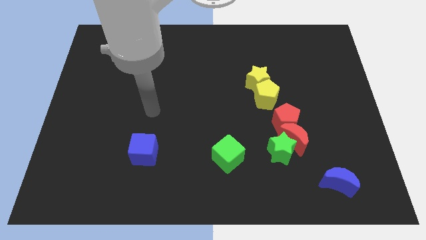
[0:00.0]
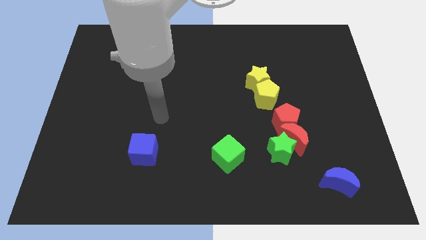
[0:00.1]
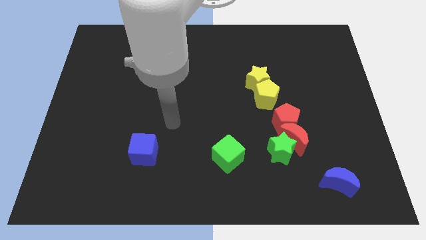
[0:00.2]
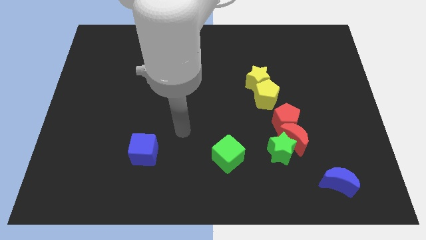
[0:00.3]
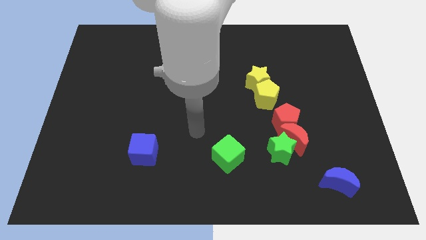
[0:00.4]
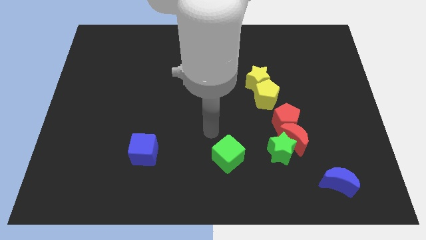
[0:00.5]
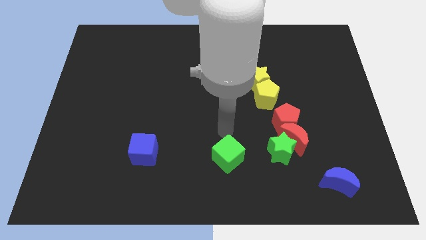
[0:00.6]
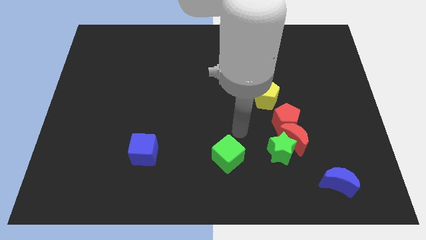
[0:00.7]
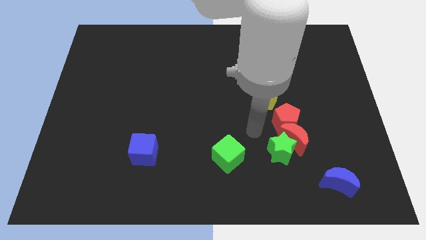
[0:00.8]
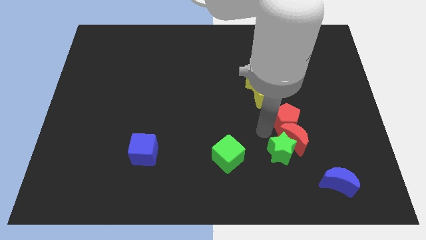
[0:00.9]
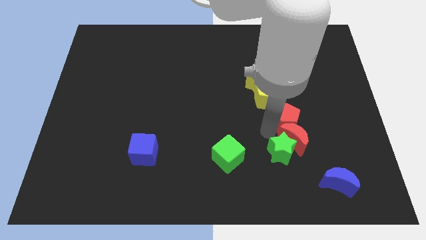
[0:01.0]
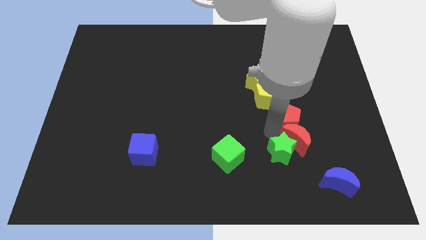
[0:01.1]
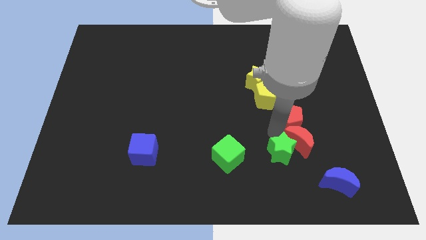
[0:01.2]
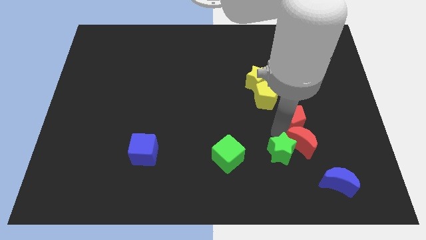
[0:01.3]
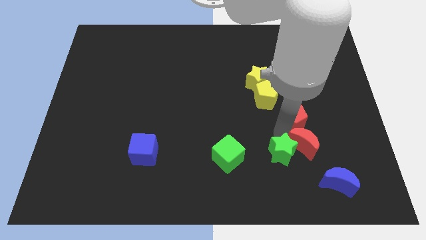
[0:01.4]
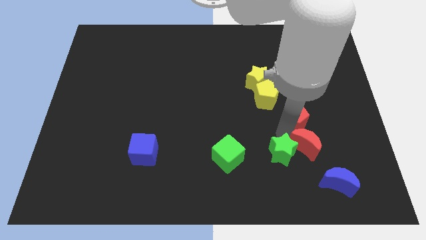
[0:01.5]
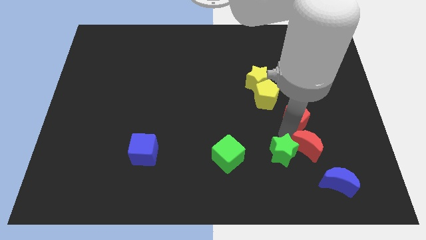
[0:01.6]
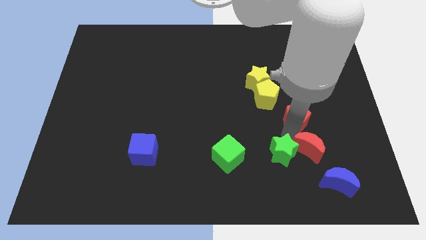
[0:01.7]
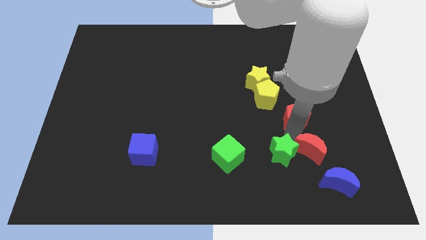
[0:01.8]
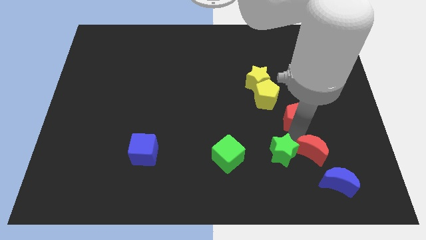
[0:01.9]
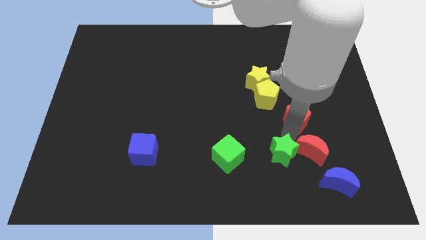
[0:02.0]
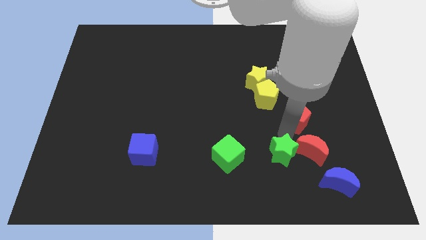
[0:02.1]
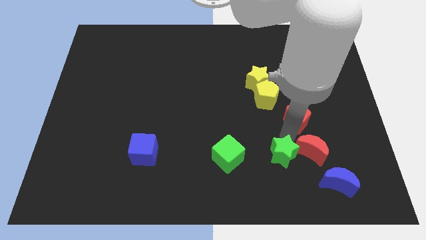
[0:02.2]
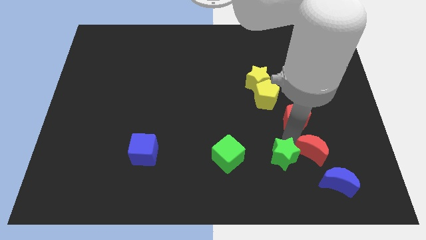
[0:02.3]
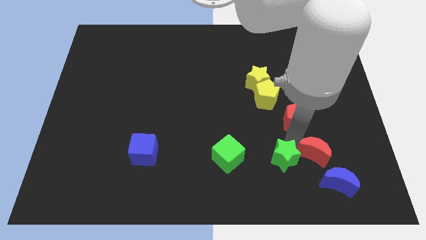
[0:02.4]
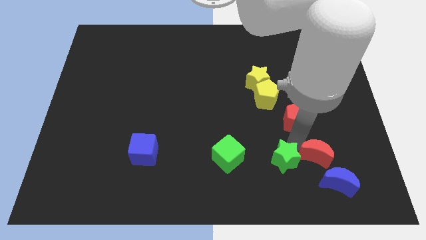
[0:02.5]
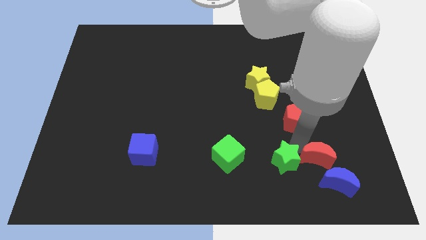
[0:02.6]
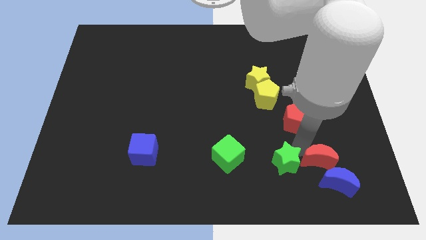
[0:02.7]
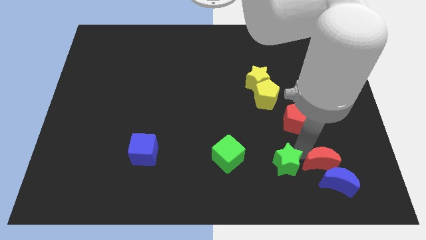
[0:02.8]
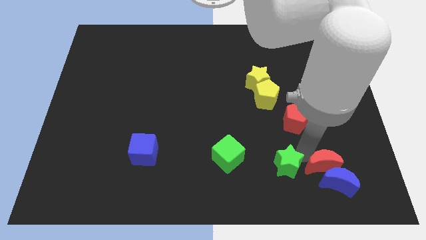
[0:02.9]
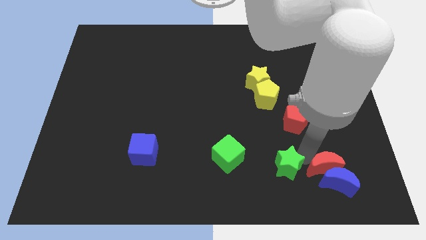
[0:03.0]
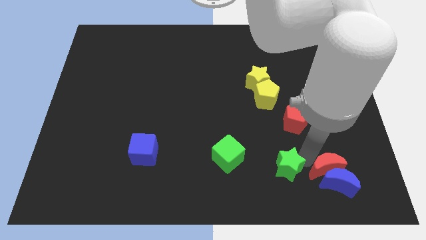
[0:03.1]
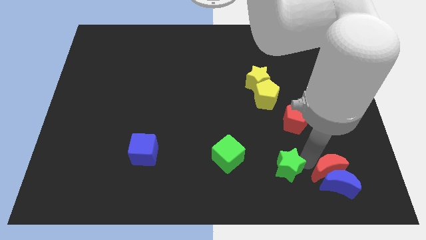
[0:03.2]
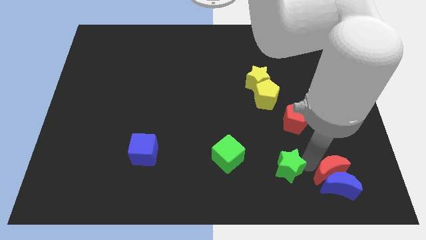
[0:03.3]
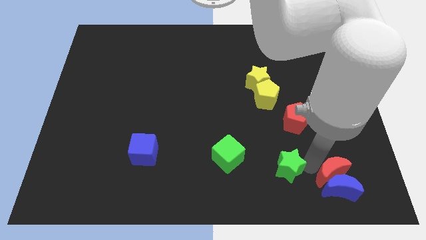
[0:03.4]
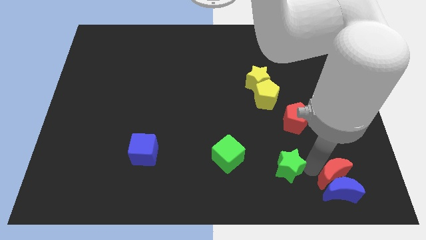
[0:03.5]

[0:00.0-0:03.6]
move the red moon away from the green star and red pentagon

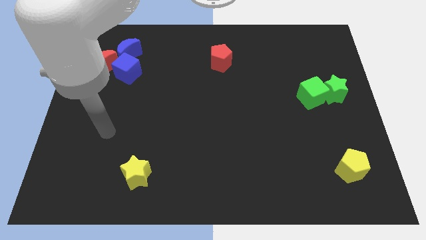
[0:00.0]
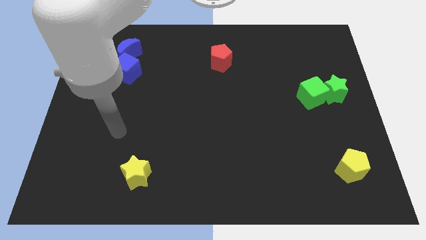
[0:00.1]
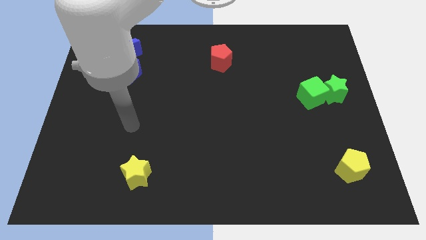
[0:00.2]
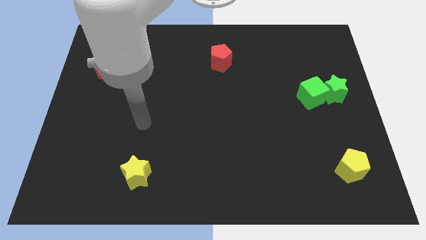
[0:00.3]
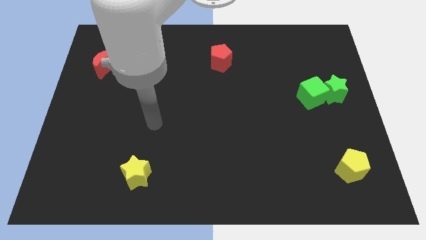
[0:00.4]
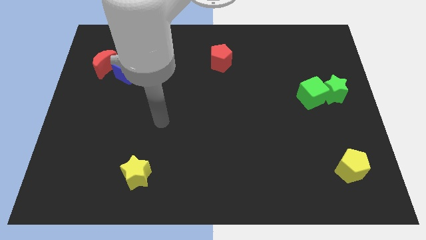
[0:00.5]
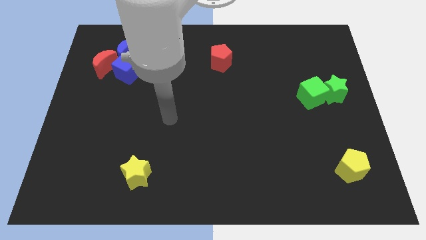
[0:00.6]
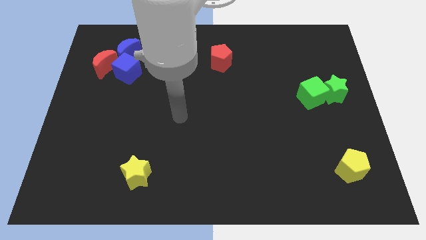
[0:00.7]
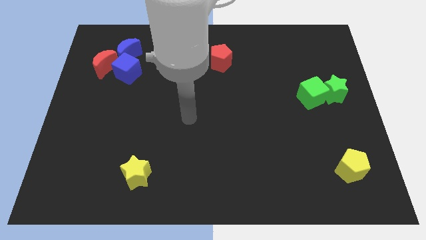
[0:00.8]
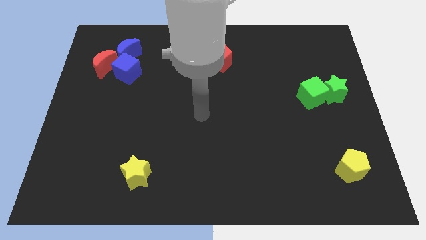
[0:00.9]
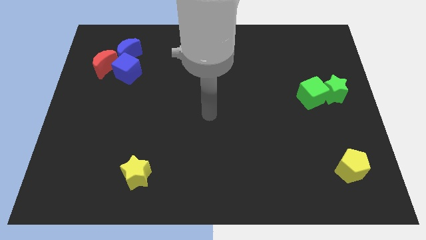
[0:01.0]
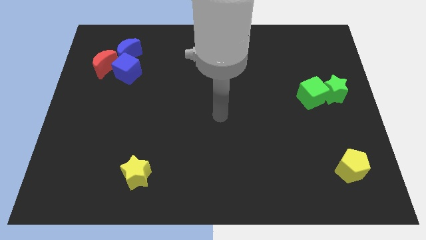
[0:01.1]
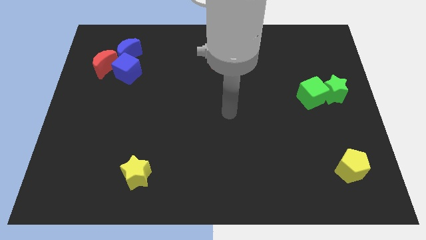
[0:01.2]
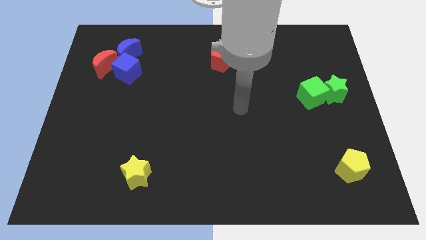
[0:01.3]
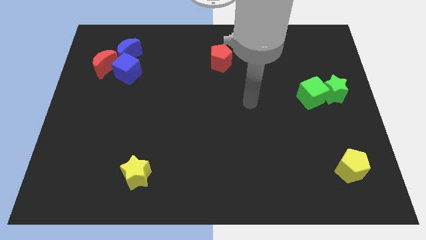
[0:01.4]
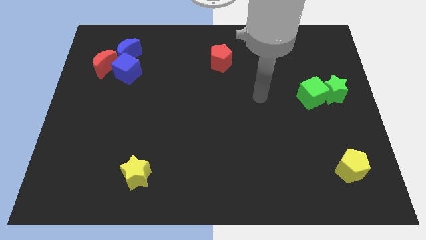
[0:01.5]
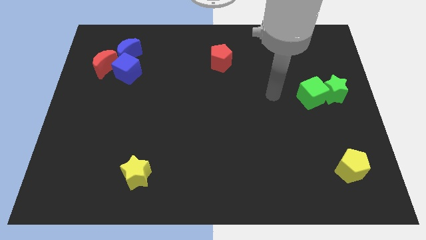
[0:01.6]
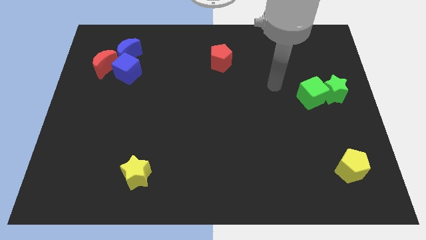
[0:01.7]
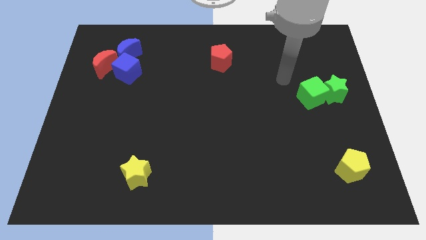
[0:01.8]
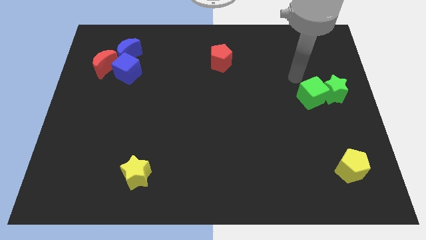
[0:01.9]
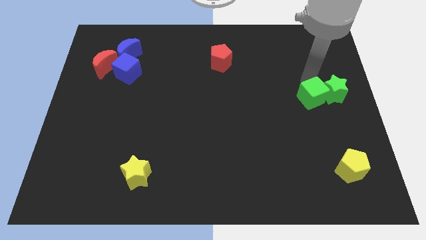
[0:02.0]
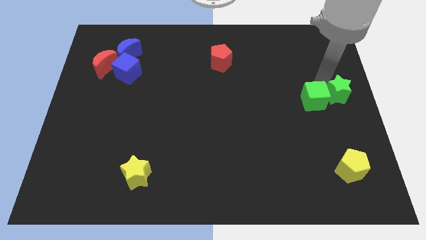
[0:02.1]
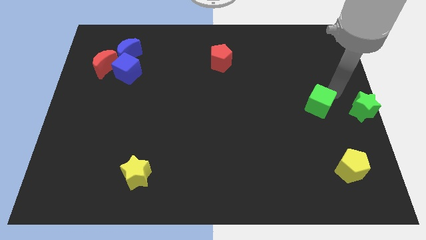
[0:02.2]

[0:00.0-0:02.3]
pull the green cube apart from the green star

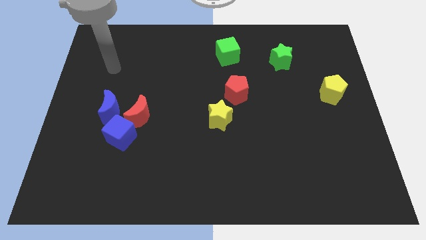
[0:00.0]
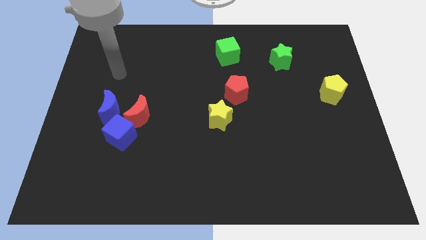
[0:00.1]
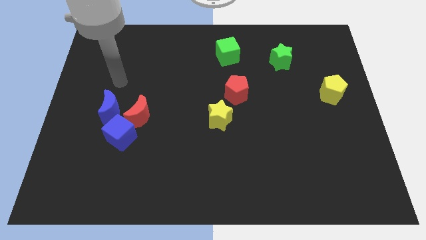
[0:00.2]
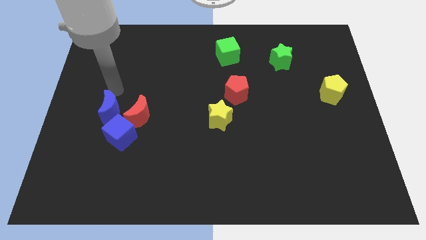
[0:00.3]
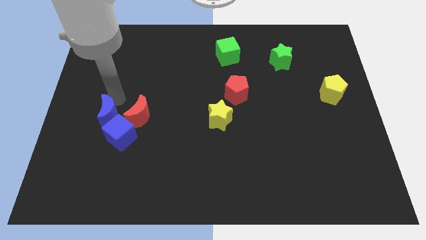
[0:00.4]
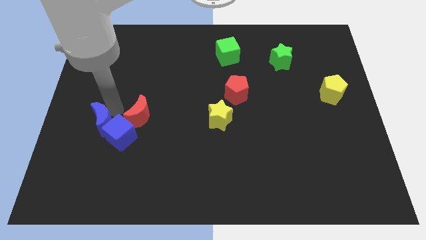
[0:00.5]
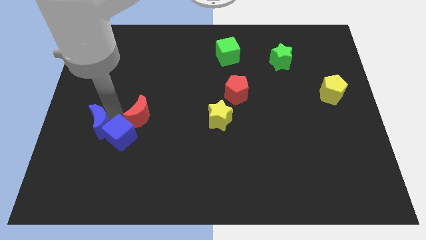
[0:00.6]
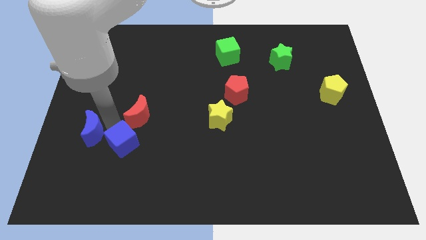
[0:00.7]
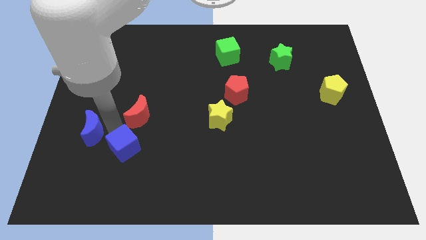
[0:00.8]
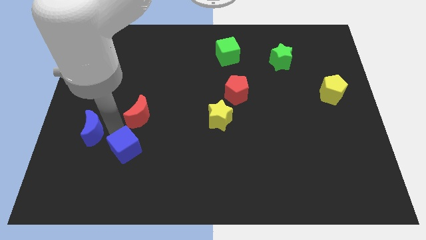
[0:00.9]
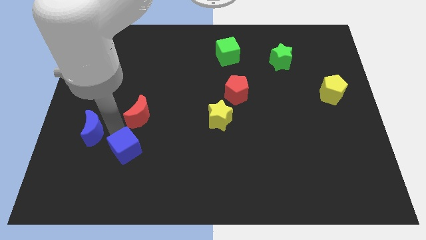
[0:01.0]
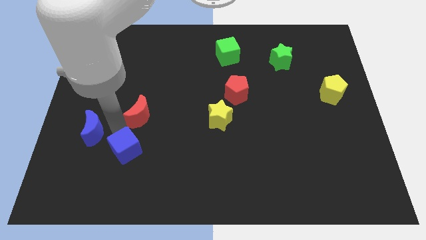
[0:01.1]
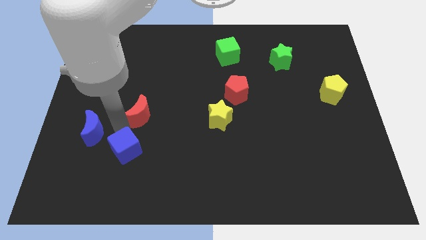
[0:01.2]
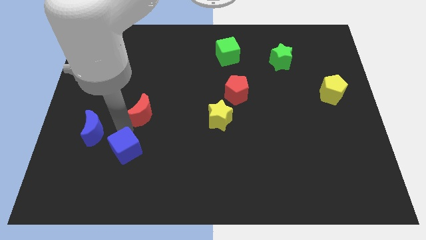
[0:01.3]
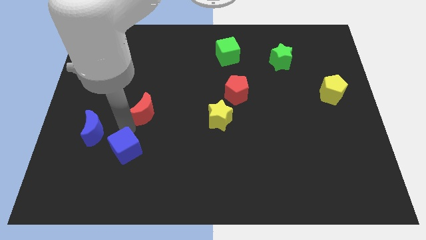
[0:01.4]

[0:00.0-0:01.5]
pull the red moon apart from the blue cube and blue moon

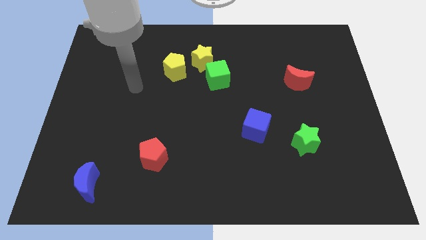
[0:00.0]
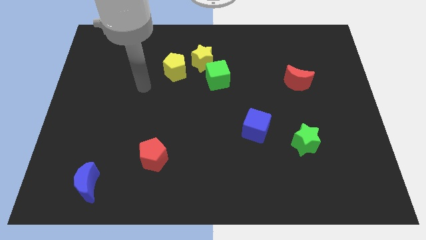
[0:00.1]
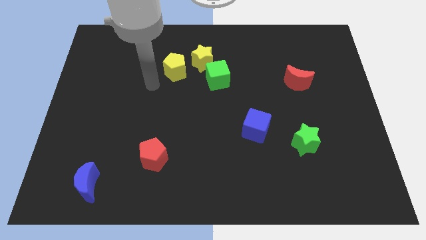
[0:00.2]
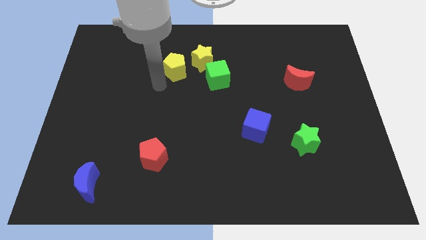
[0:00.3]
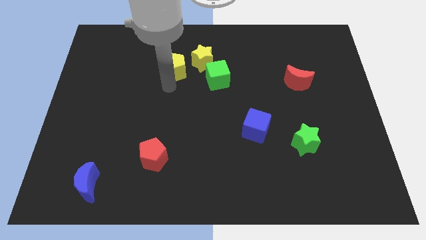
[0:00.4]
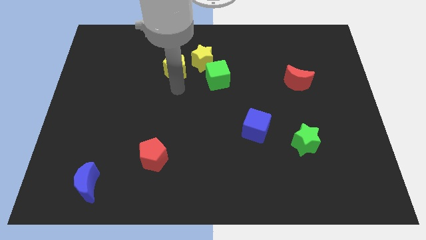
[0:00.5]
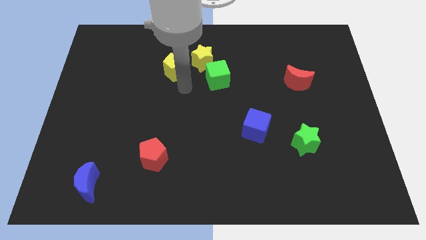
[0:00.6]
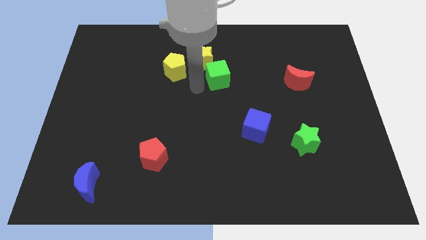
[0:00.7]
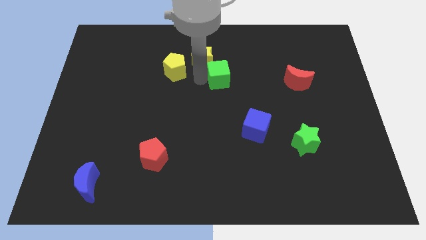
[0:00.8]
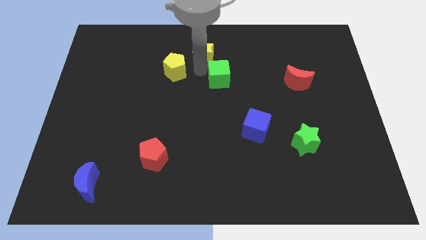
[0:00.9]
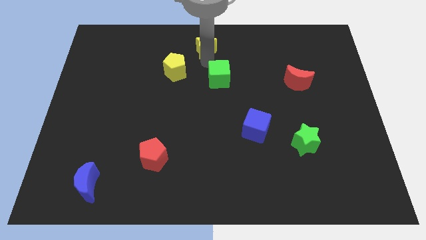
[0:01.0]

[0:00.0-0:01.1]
move the green cube away from the yellow star

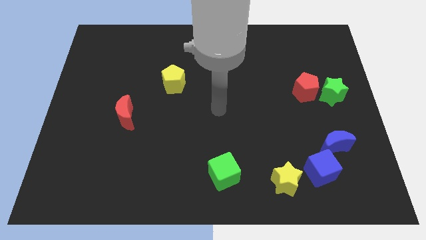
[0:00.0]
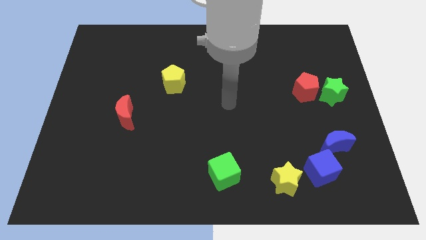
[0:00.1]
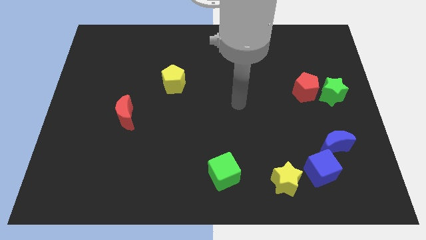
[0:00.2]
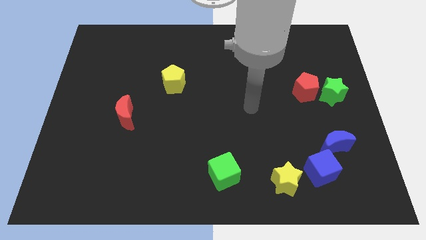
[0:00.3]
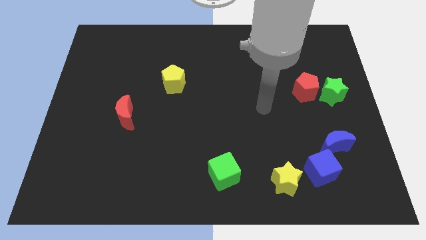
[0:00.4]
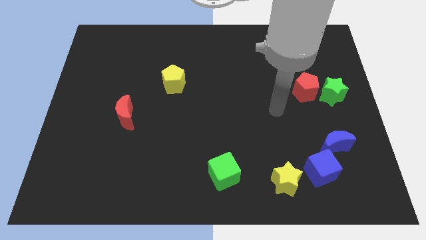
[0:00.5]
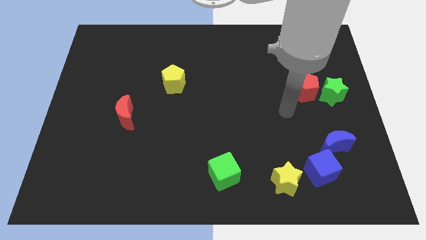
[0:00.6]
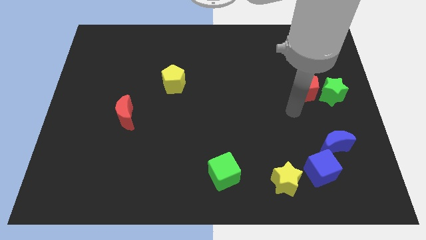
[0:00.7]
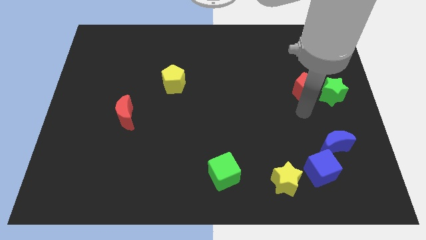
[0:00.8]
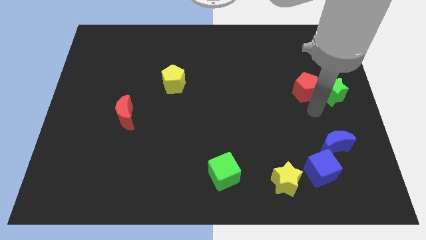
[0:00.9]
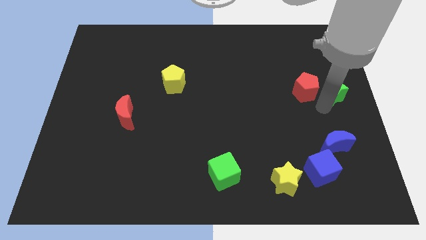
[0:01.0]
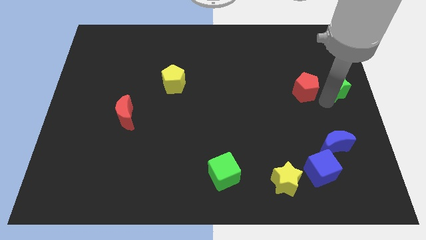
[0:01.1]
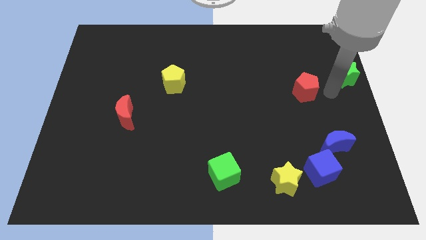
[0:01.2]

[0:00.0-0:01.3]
pull the red pentagon apart from the green star
